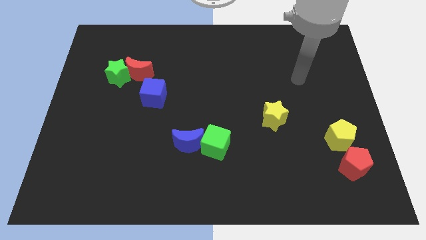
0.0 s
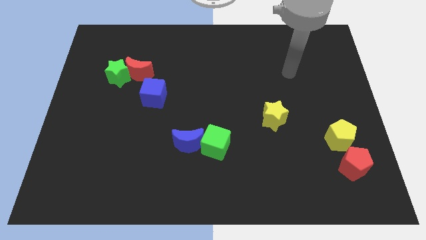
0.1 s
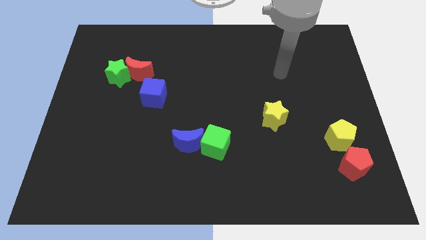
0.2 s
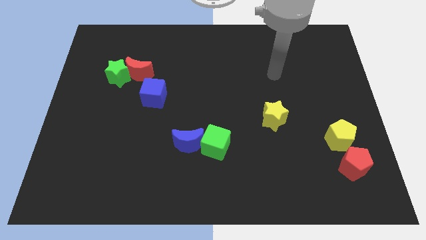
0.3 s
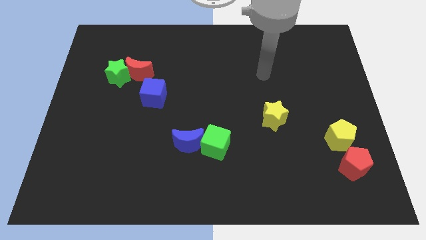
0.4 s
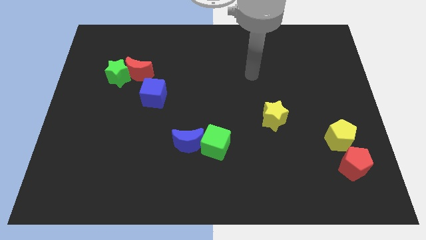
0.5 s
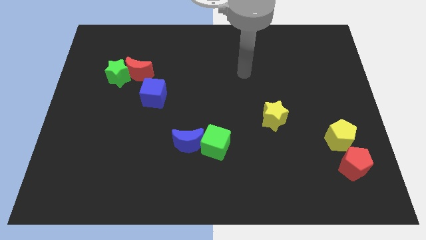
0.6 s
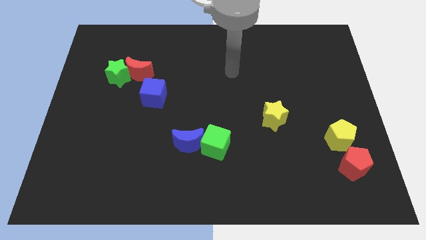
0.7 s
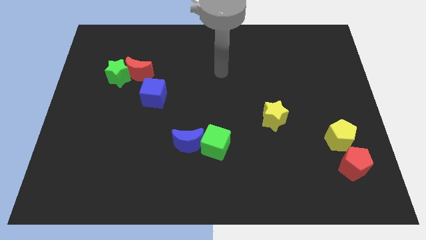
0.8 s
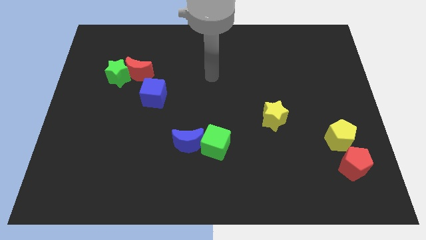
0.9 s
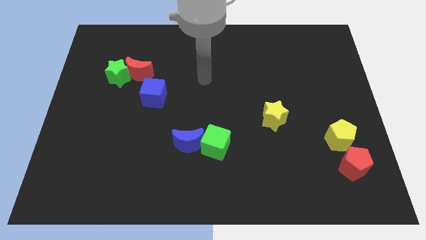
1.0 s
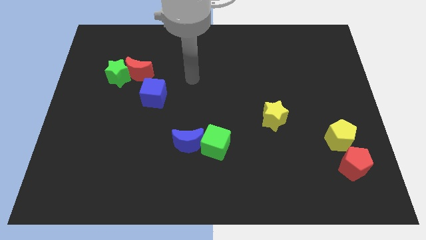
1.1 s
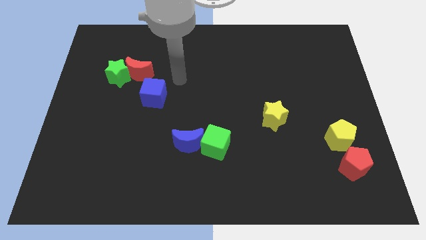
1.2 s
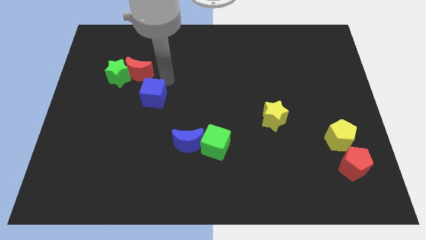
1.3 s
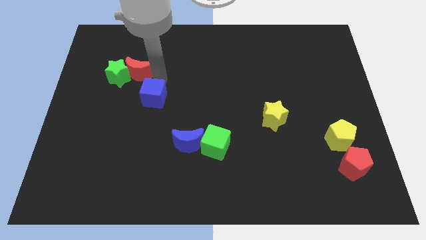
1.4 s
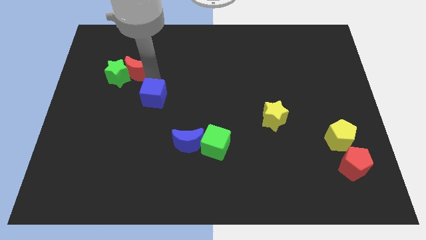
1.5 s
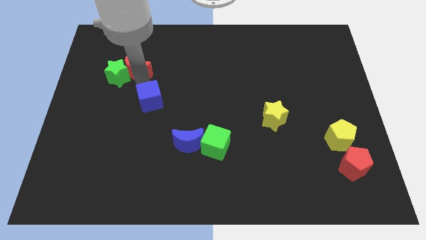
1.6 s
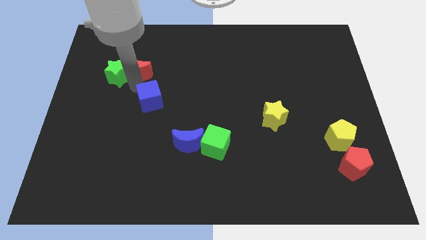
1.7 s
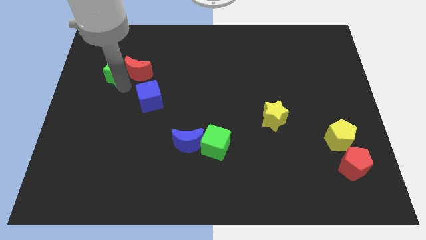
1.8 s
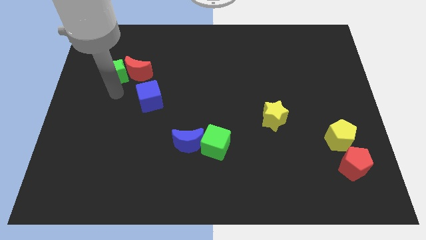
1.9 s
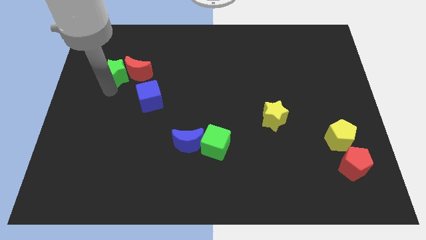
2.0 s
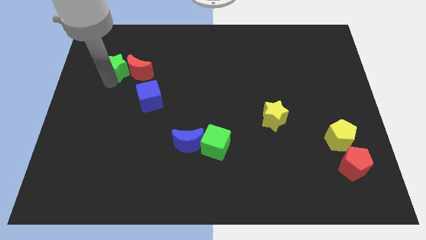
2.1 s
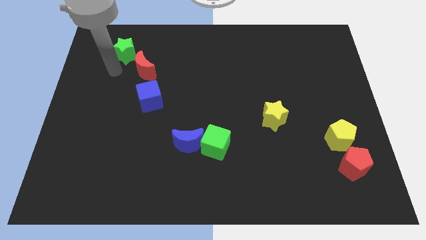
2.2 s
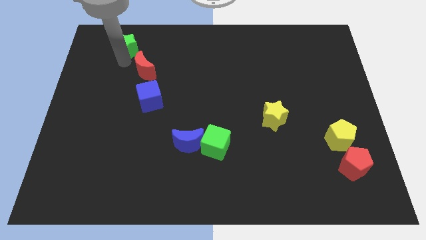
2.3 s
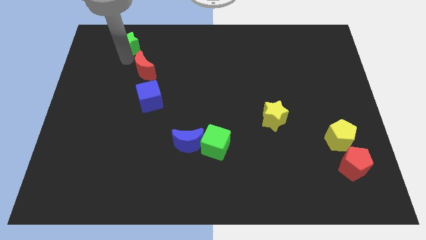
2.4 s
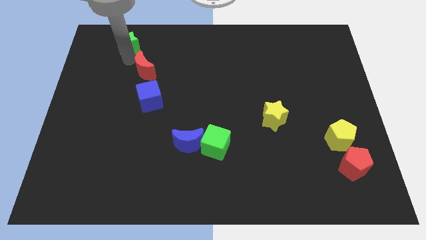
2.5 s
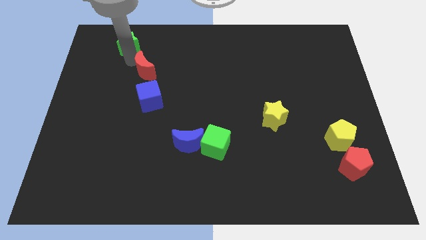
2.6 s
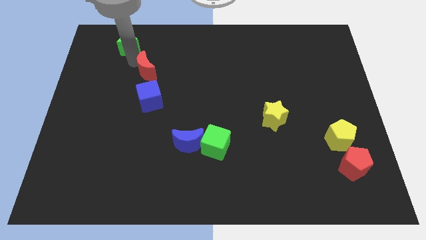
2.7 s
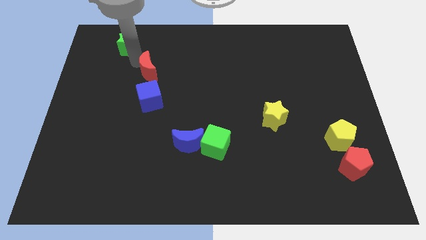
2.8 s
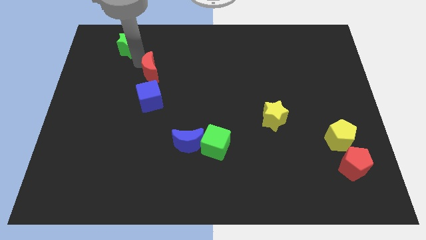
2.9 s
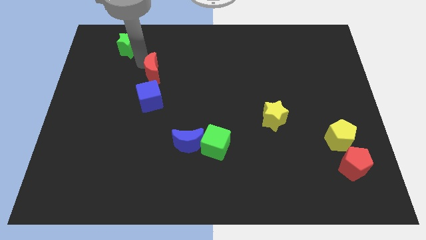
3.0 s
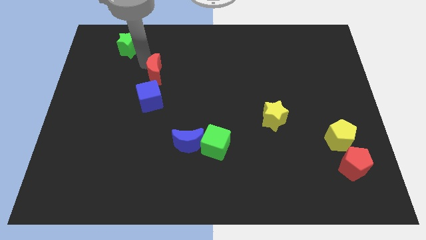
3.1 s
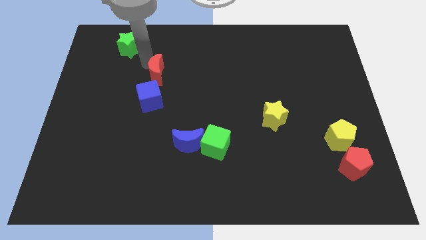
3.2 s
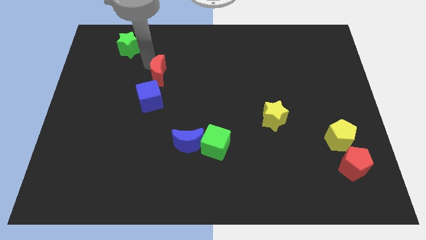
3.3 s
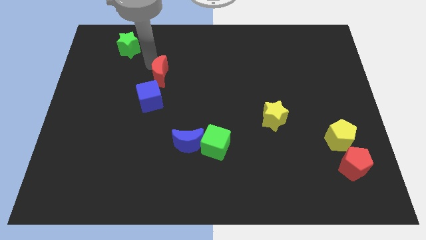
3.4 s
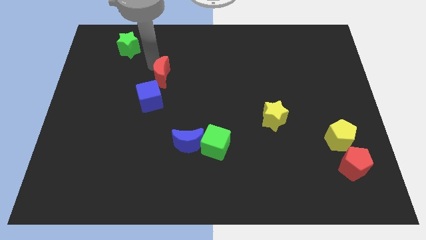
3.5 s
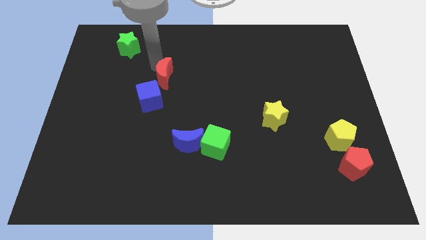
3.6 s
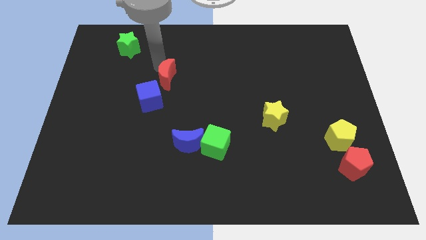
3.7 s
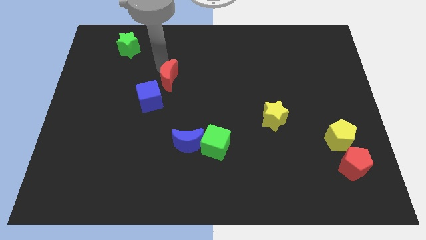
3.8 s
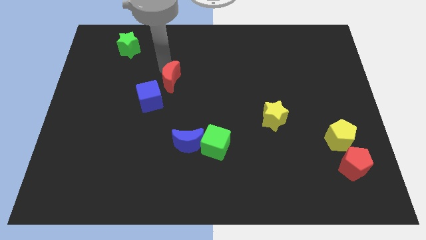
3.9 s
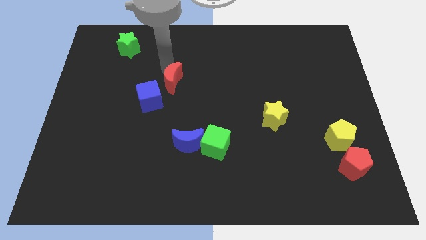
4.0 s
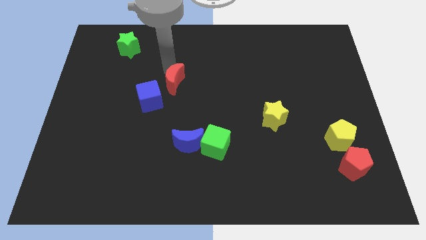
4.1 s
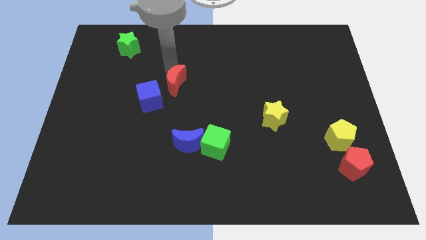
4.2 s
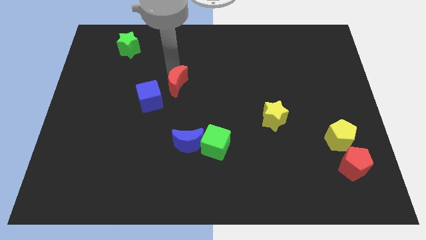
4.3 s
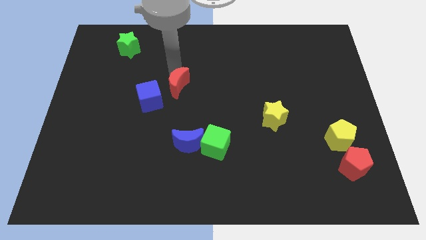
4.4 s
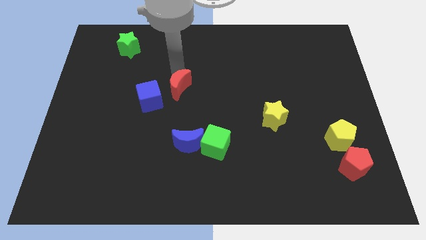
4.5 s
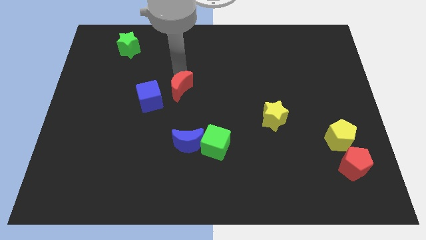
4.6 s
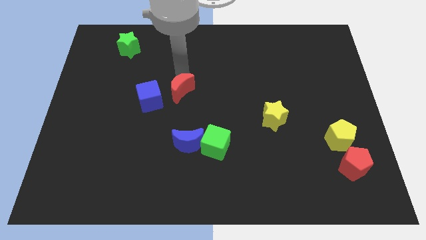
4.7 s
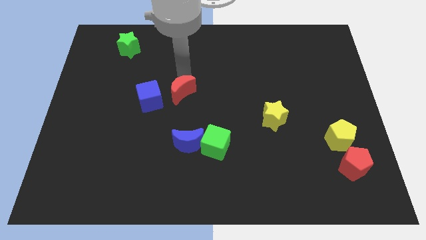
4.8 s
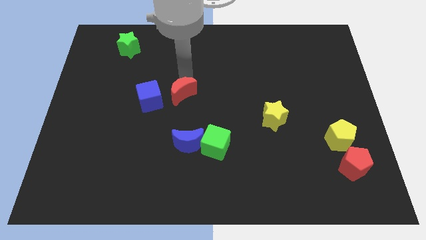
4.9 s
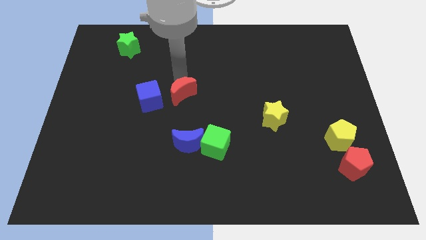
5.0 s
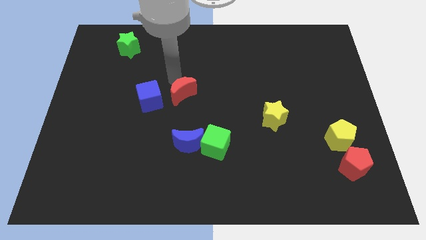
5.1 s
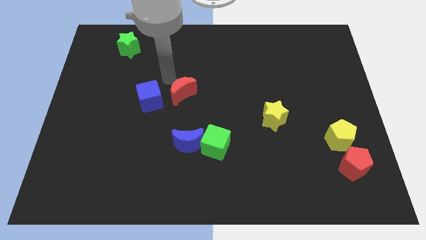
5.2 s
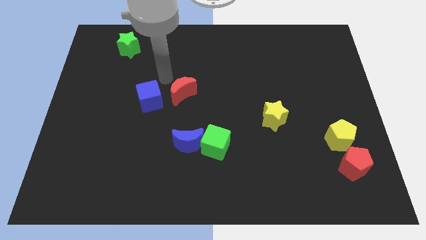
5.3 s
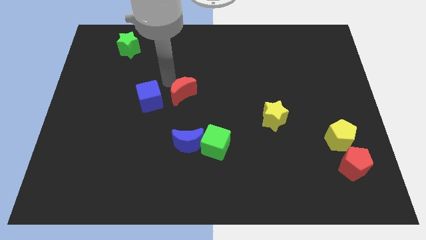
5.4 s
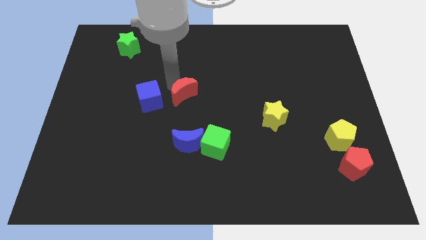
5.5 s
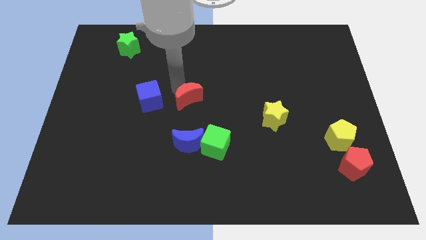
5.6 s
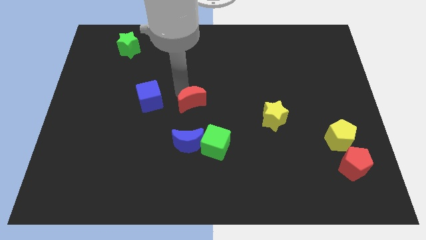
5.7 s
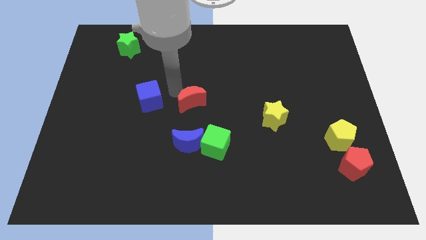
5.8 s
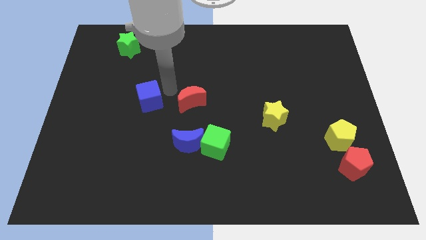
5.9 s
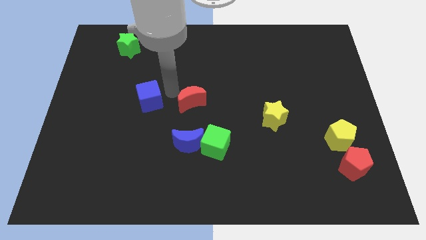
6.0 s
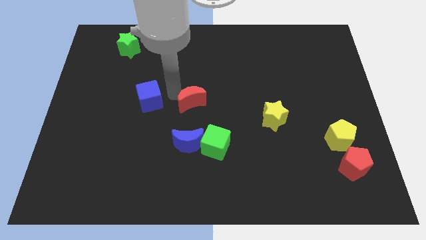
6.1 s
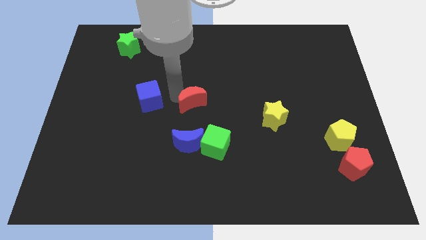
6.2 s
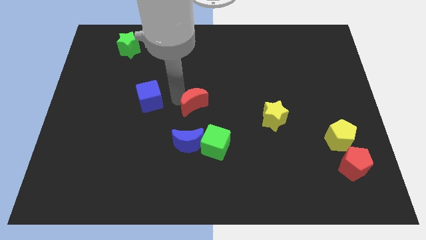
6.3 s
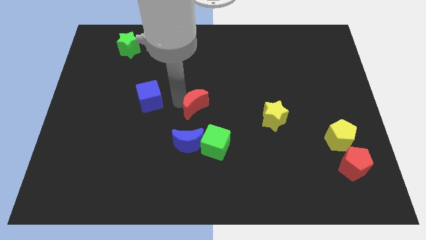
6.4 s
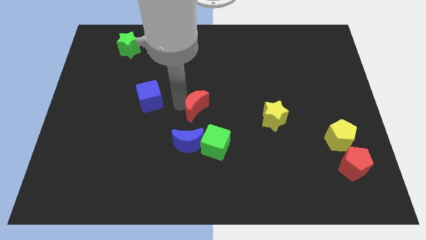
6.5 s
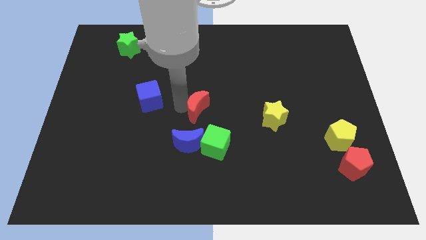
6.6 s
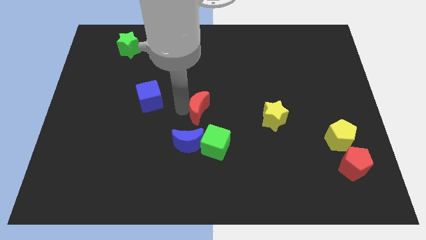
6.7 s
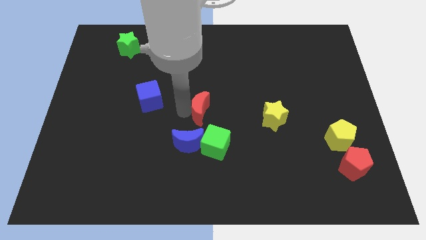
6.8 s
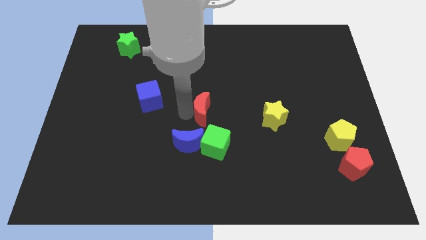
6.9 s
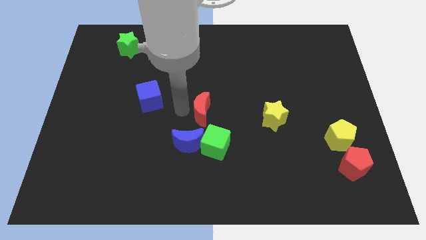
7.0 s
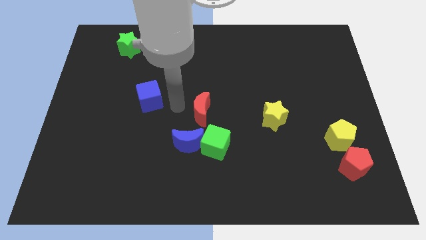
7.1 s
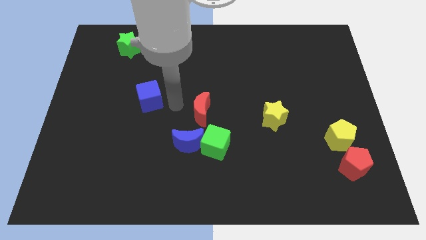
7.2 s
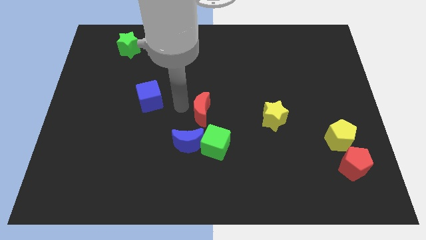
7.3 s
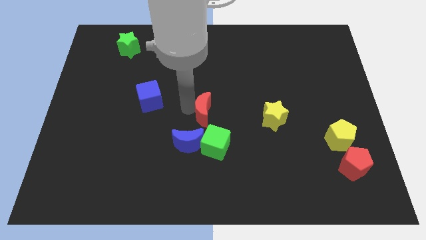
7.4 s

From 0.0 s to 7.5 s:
push the red moon to the left side of the yellow star
